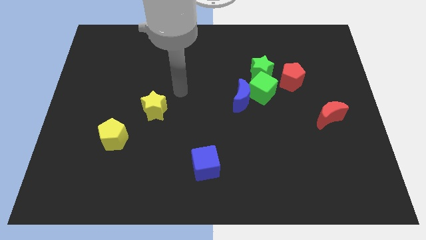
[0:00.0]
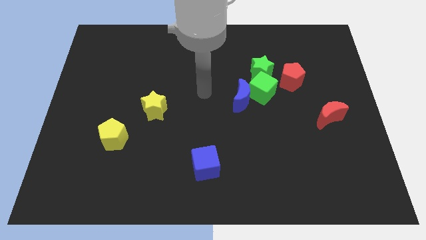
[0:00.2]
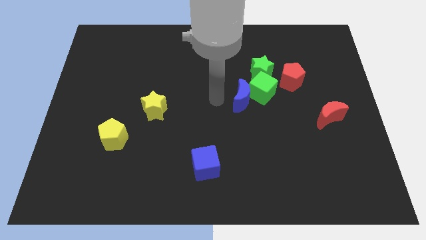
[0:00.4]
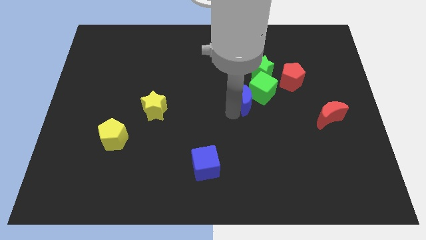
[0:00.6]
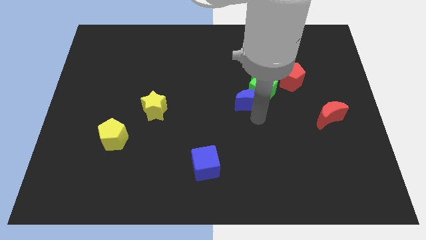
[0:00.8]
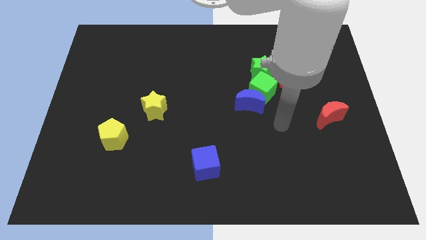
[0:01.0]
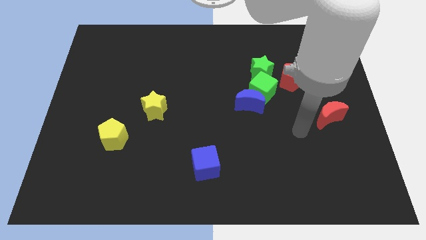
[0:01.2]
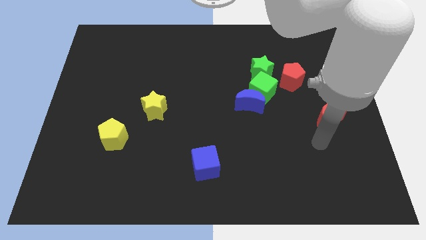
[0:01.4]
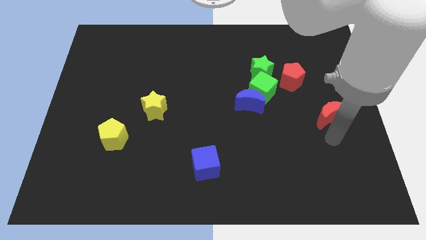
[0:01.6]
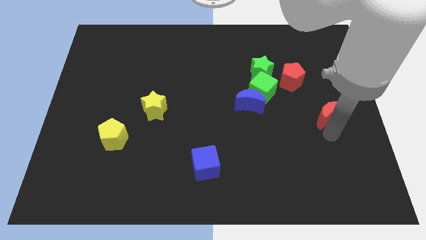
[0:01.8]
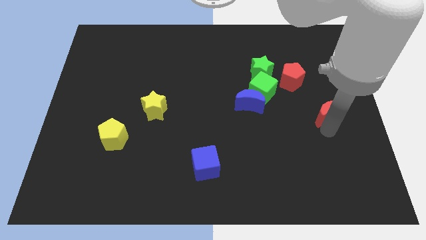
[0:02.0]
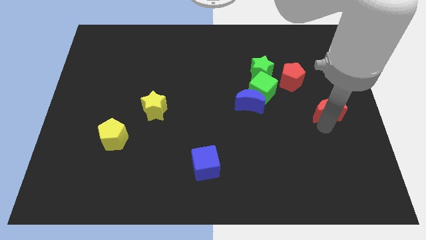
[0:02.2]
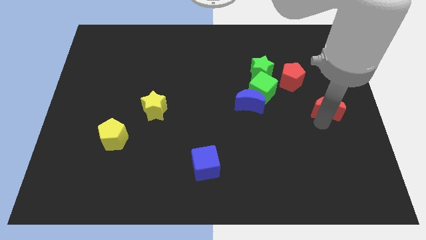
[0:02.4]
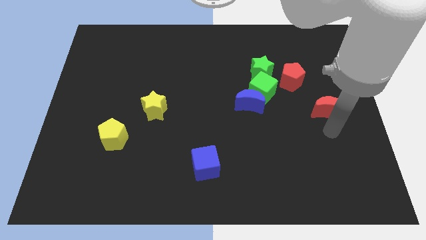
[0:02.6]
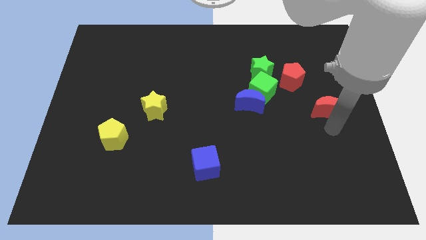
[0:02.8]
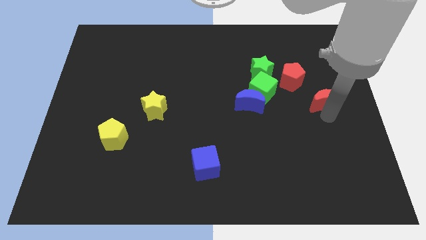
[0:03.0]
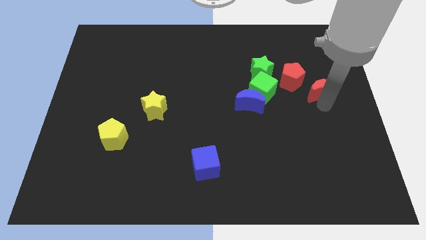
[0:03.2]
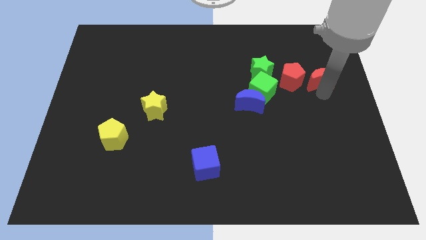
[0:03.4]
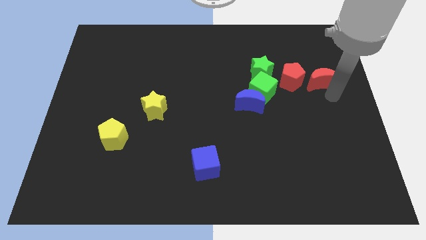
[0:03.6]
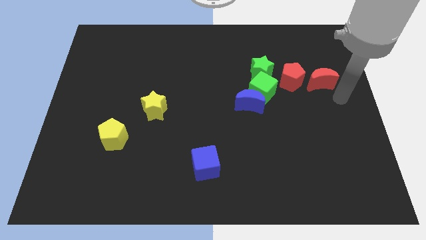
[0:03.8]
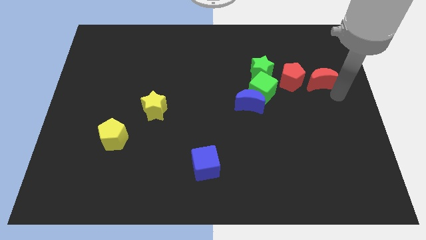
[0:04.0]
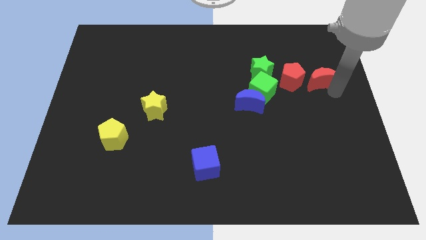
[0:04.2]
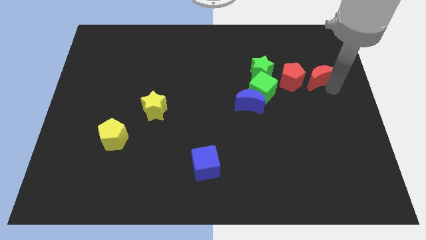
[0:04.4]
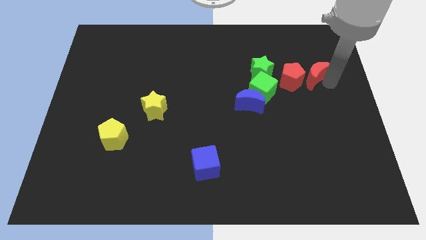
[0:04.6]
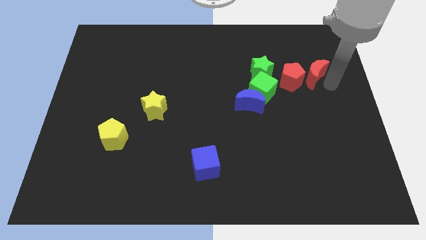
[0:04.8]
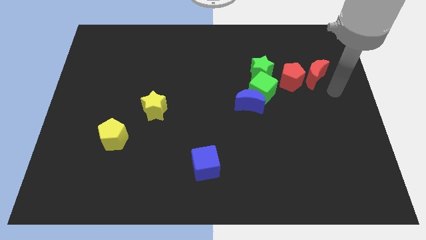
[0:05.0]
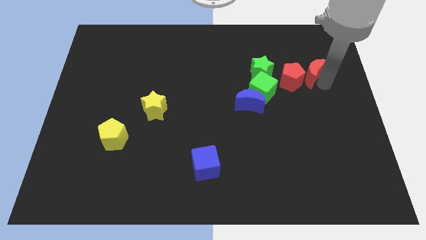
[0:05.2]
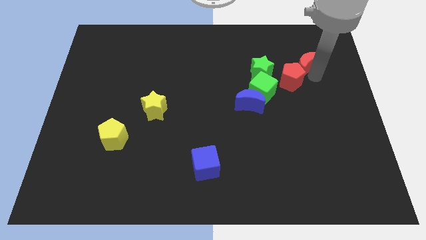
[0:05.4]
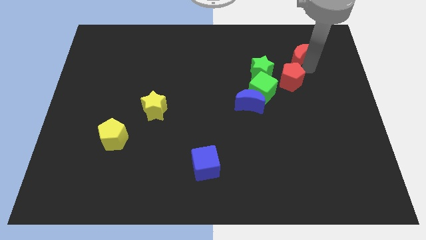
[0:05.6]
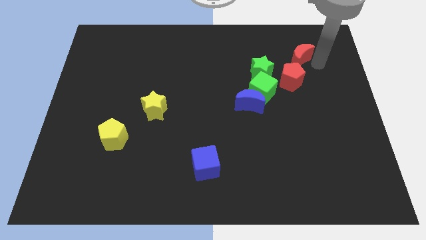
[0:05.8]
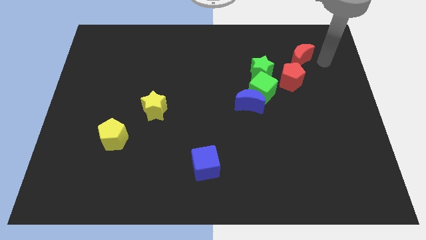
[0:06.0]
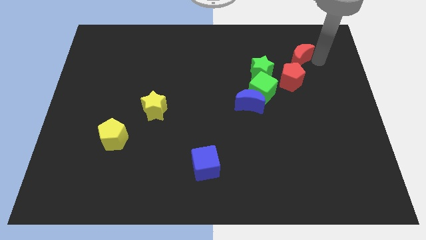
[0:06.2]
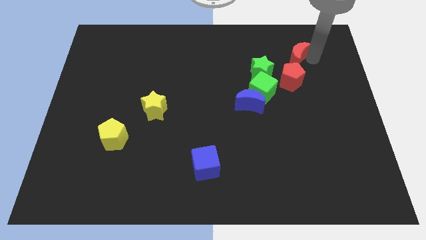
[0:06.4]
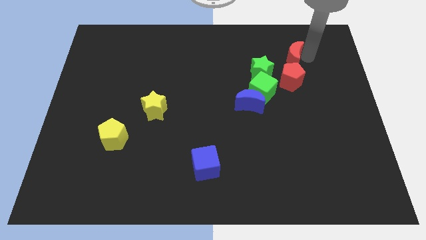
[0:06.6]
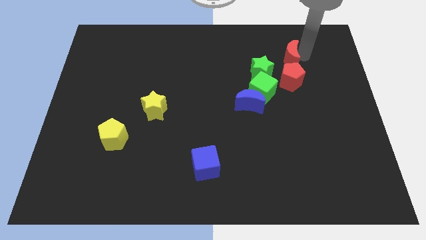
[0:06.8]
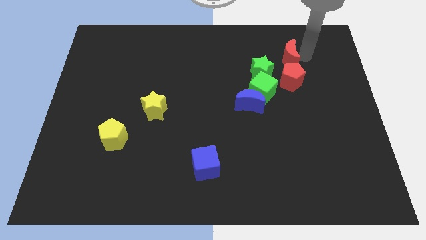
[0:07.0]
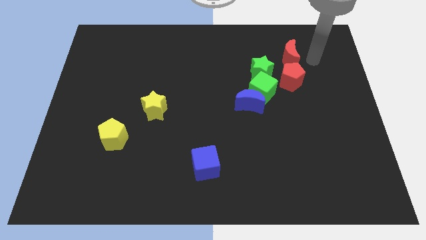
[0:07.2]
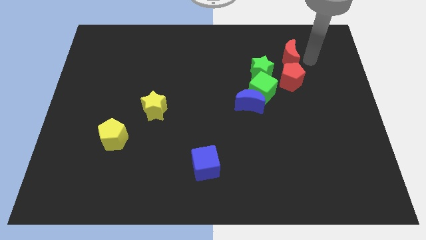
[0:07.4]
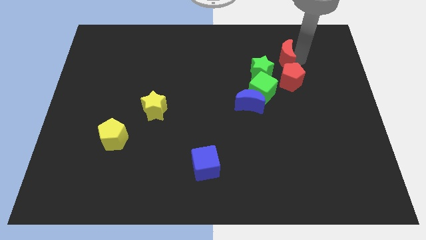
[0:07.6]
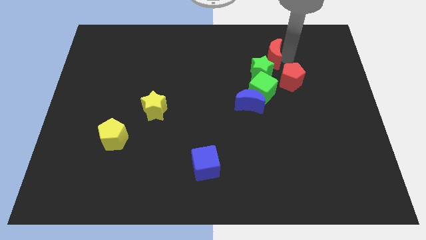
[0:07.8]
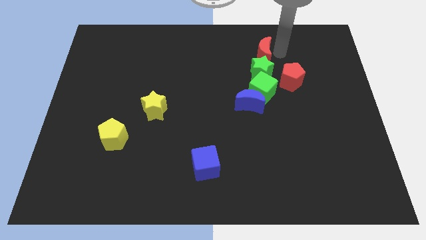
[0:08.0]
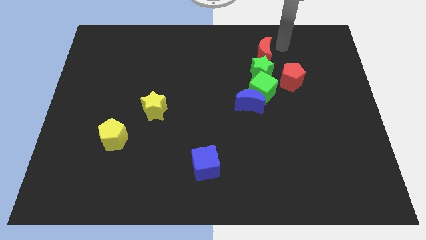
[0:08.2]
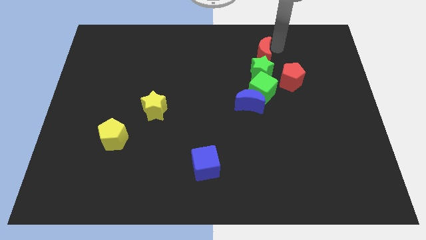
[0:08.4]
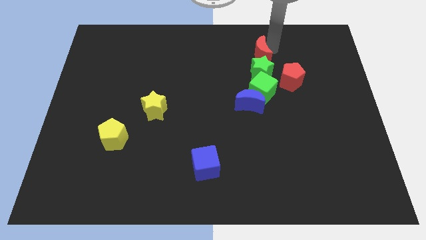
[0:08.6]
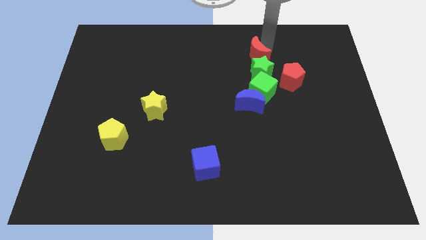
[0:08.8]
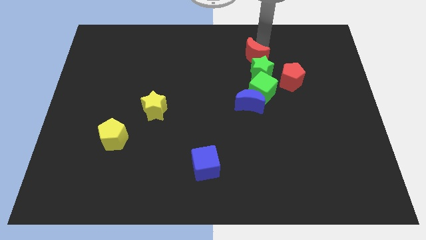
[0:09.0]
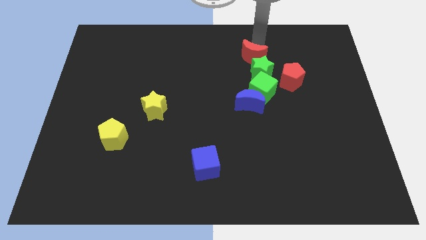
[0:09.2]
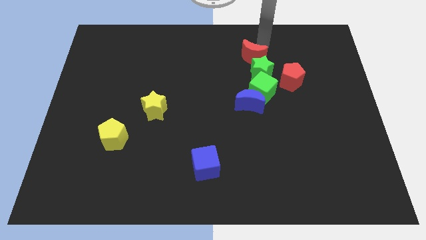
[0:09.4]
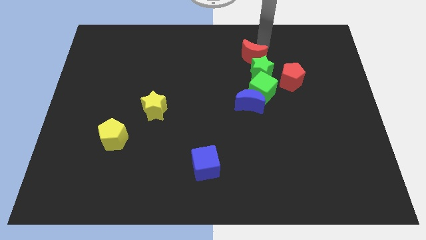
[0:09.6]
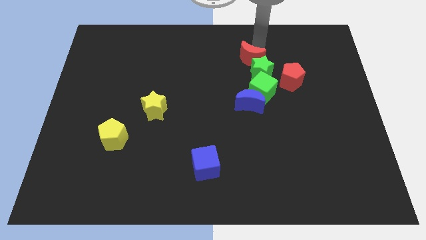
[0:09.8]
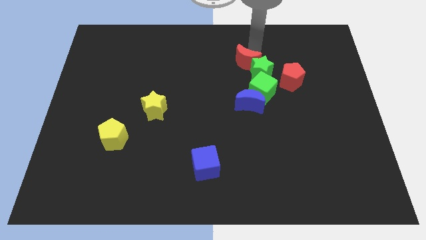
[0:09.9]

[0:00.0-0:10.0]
put the red moon to the top left of the green cube

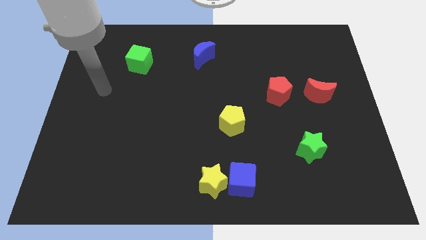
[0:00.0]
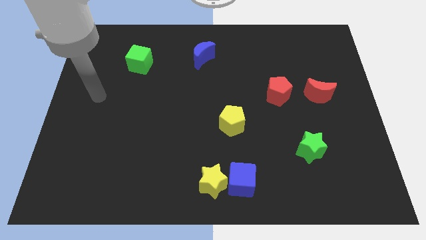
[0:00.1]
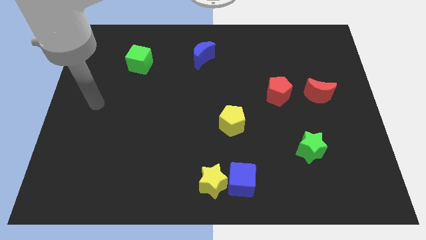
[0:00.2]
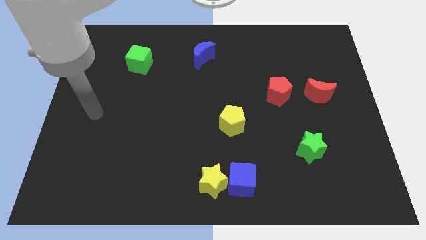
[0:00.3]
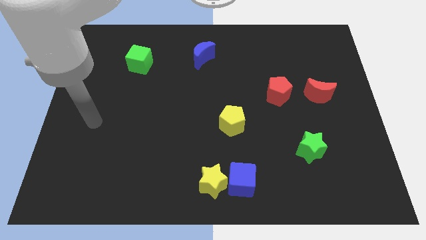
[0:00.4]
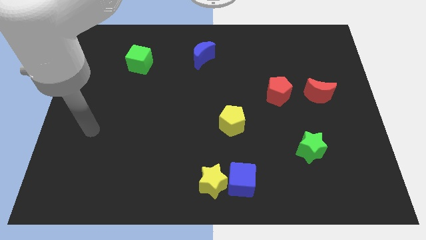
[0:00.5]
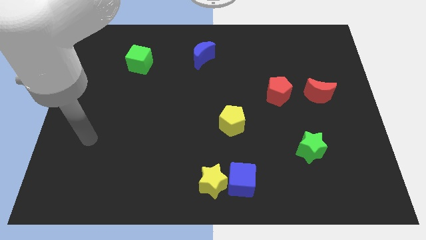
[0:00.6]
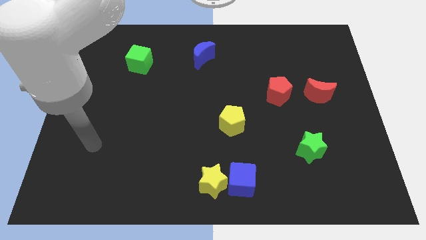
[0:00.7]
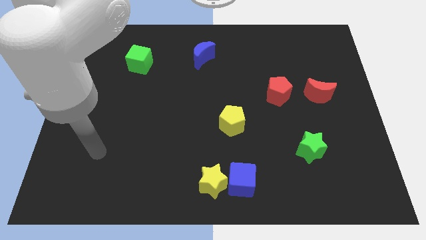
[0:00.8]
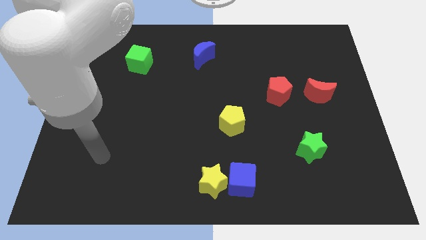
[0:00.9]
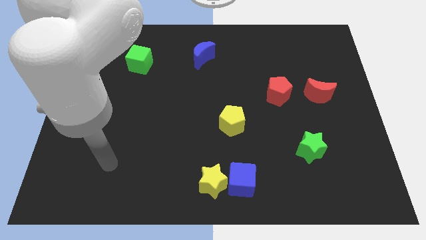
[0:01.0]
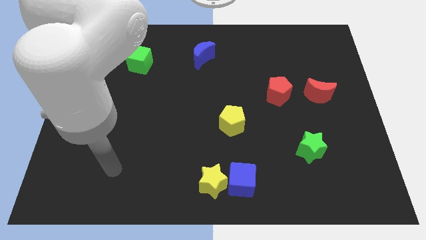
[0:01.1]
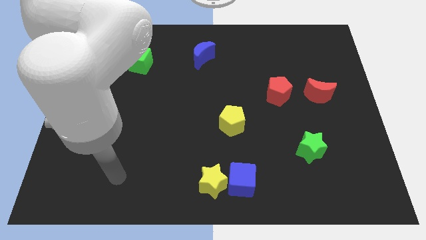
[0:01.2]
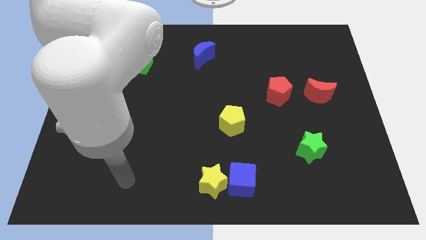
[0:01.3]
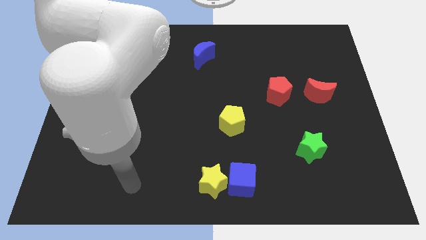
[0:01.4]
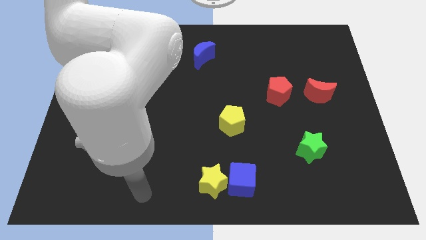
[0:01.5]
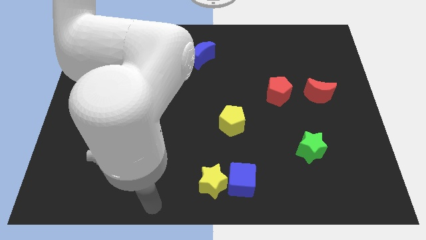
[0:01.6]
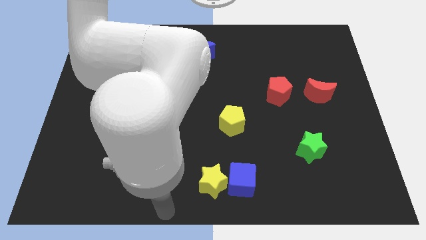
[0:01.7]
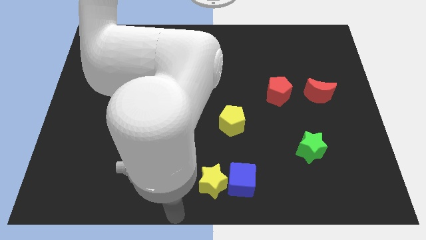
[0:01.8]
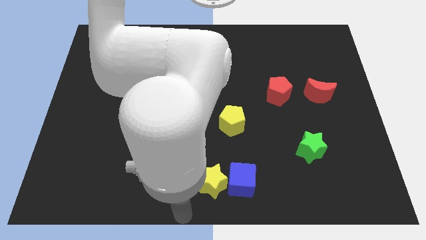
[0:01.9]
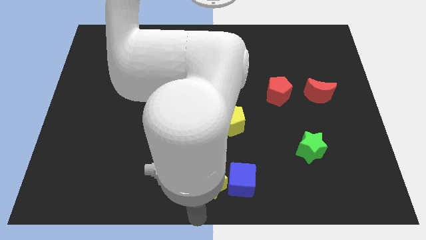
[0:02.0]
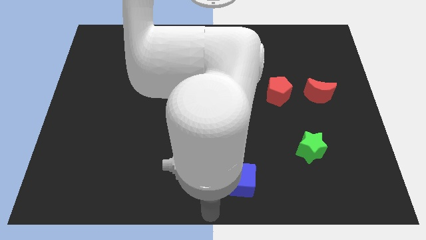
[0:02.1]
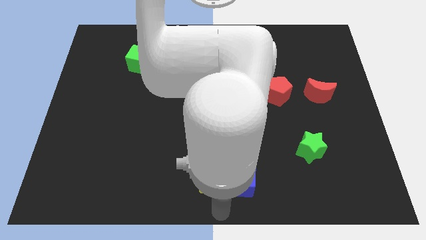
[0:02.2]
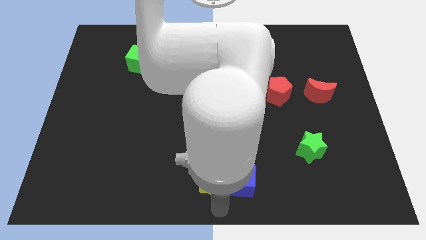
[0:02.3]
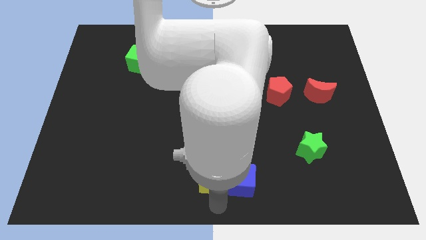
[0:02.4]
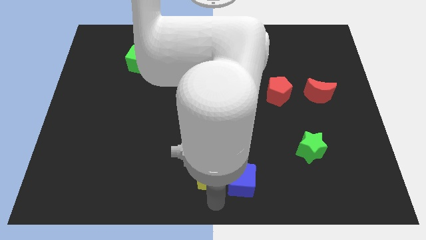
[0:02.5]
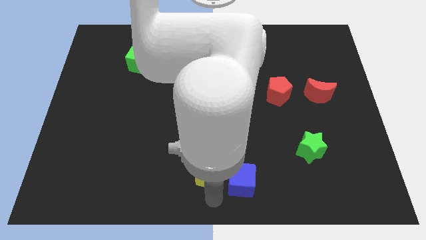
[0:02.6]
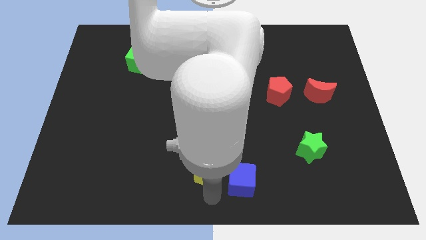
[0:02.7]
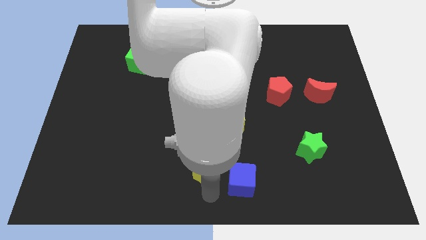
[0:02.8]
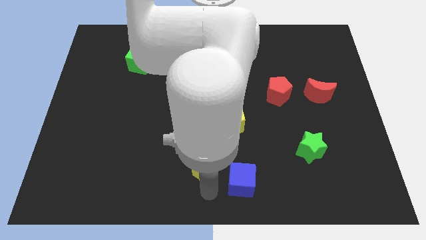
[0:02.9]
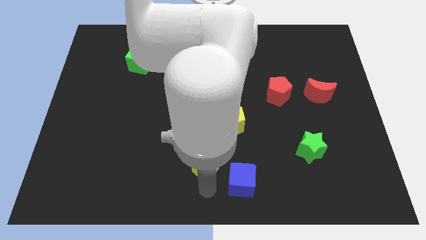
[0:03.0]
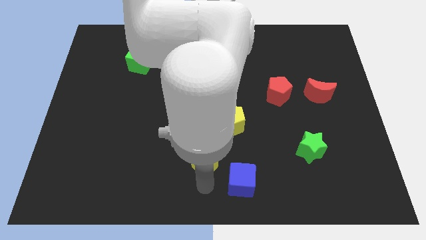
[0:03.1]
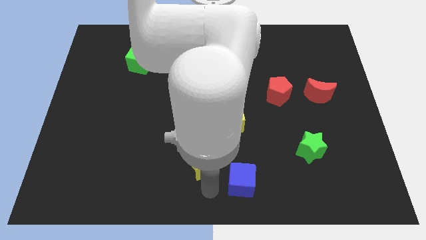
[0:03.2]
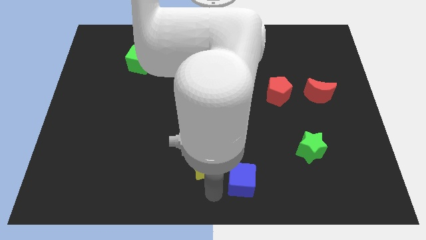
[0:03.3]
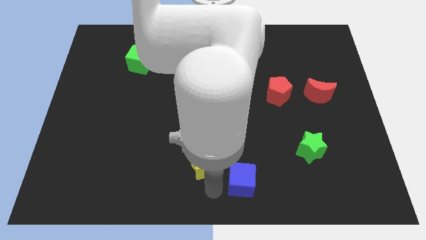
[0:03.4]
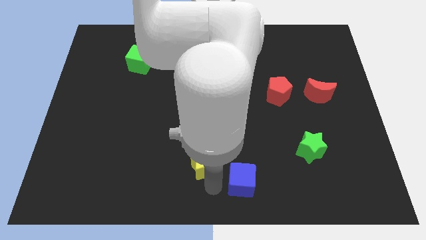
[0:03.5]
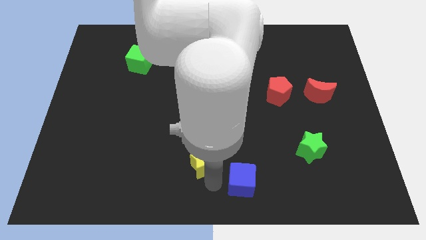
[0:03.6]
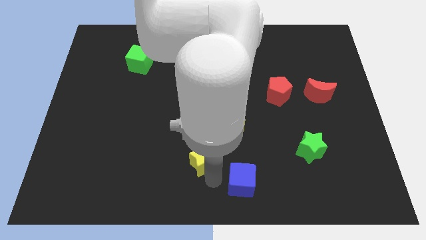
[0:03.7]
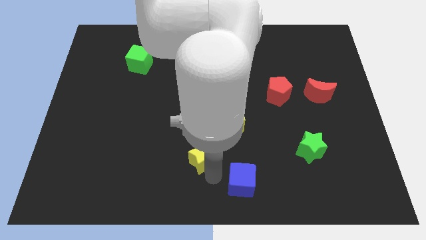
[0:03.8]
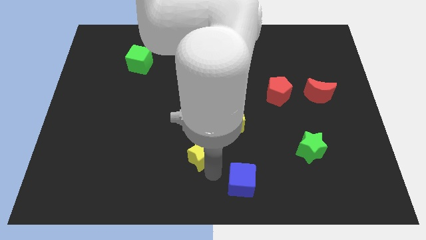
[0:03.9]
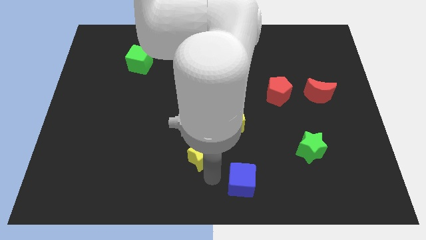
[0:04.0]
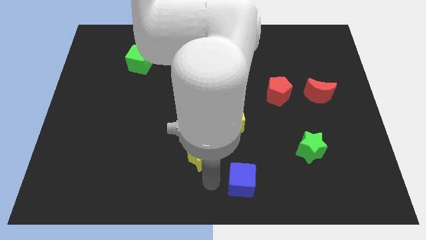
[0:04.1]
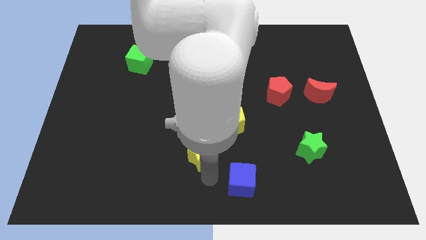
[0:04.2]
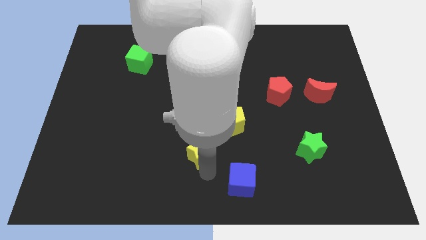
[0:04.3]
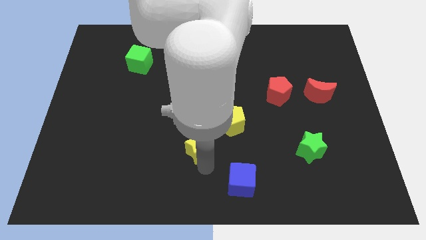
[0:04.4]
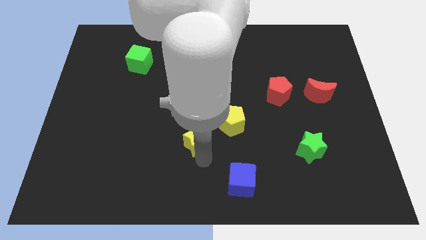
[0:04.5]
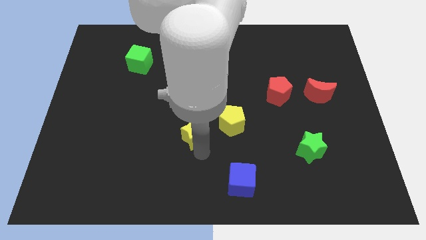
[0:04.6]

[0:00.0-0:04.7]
move the yellow star to the left side of the yellow pentagon
